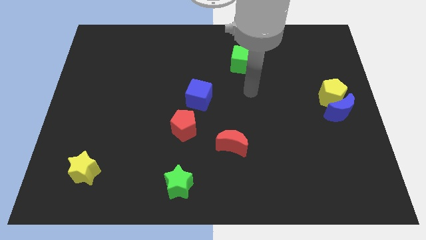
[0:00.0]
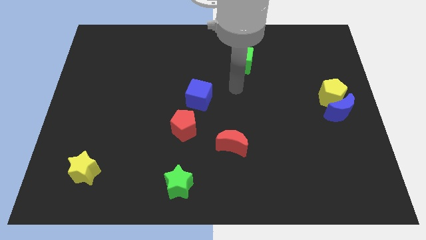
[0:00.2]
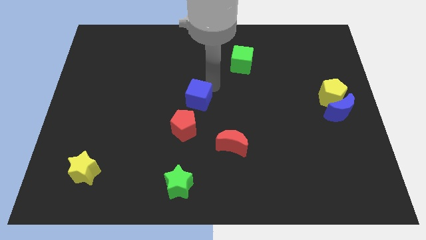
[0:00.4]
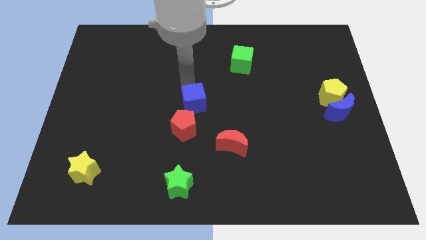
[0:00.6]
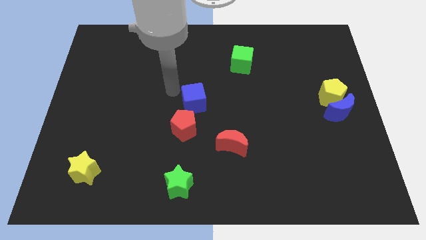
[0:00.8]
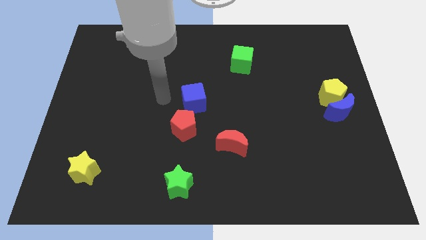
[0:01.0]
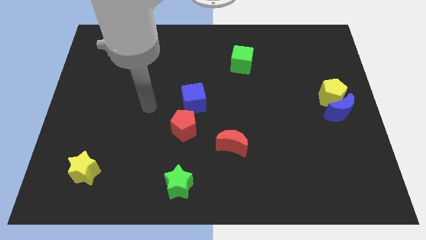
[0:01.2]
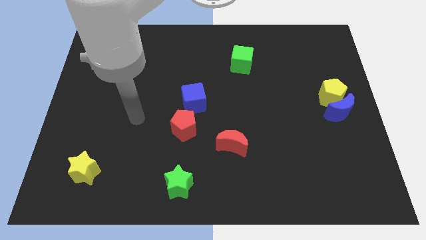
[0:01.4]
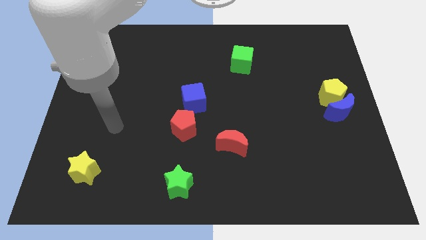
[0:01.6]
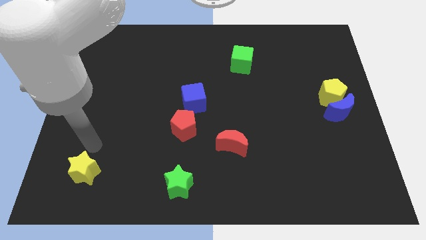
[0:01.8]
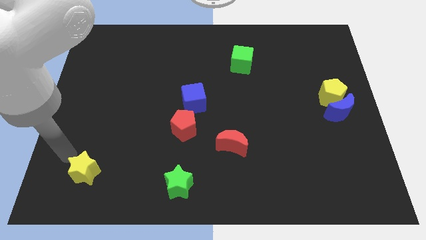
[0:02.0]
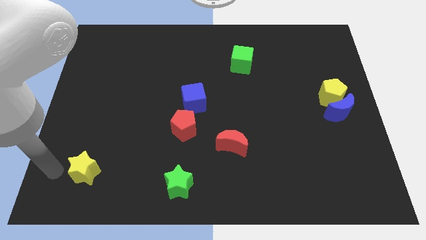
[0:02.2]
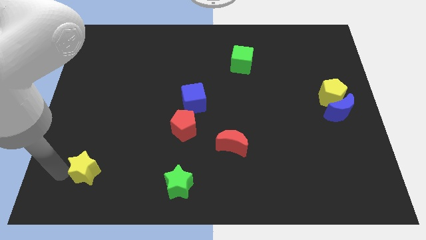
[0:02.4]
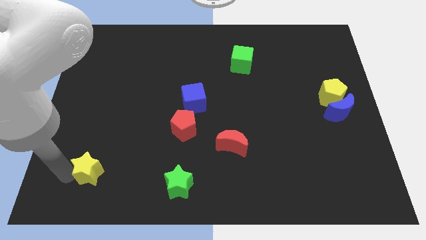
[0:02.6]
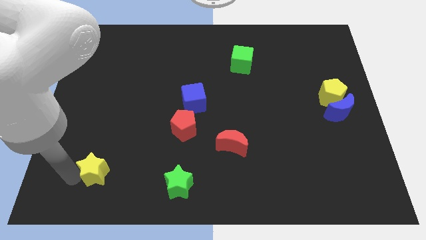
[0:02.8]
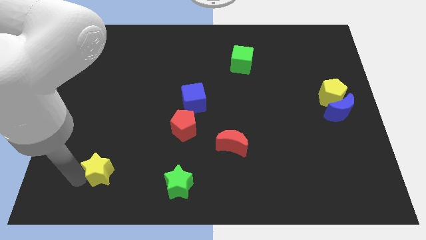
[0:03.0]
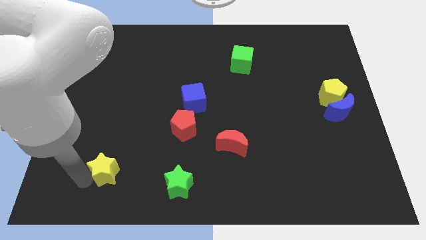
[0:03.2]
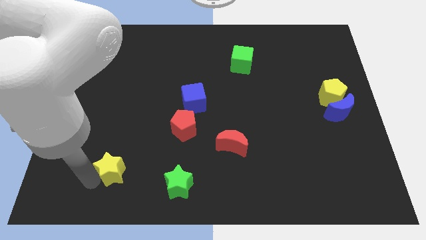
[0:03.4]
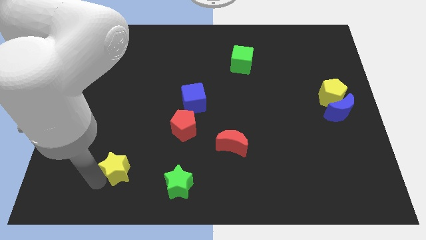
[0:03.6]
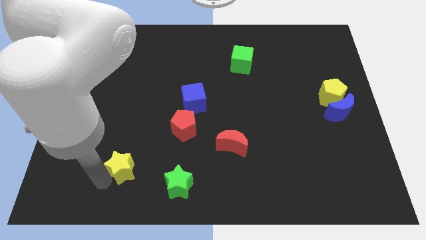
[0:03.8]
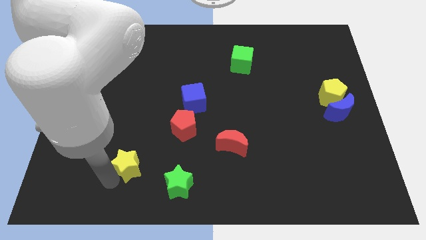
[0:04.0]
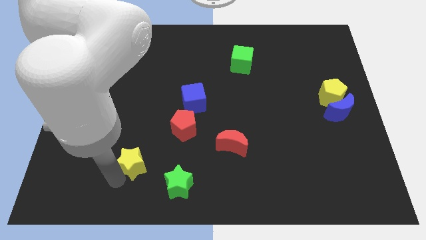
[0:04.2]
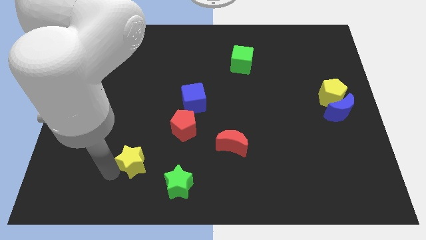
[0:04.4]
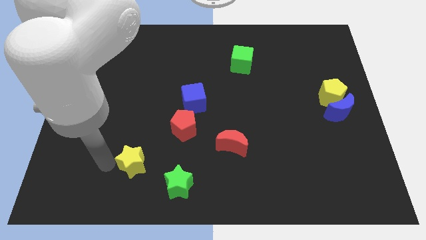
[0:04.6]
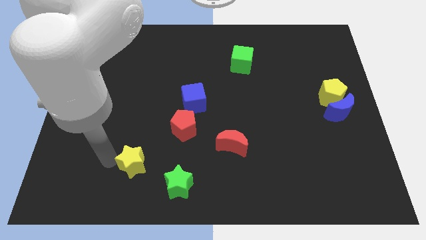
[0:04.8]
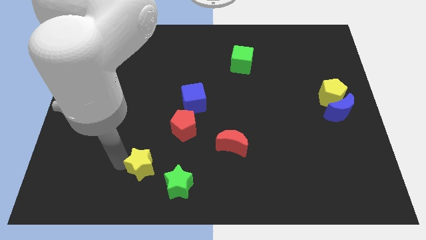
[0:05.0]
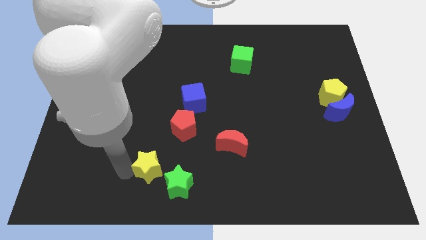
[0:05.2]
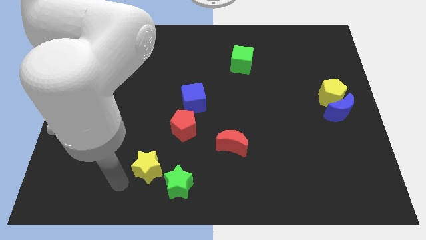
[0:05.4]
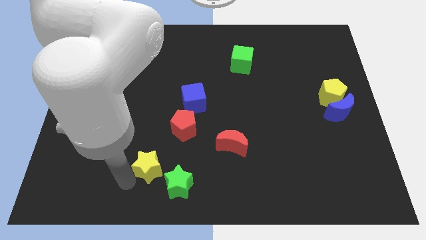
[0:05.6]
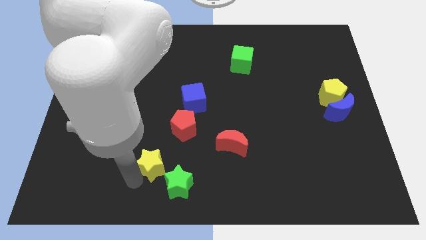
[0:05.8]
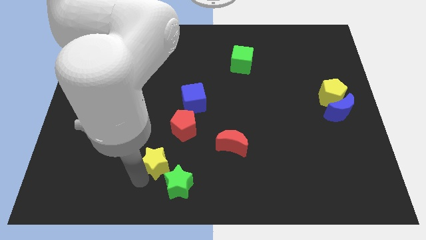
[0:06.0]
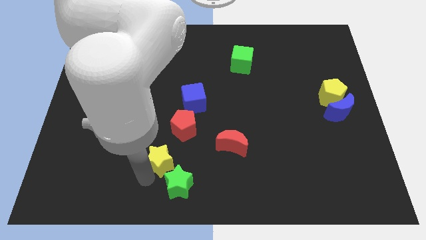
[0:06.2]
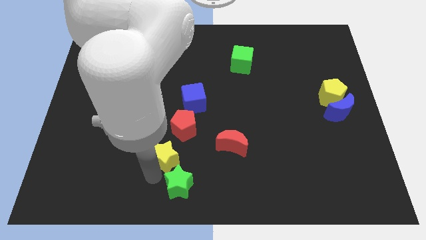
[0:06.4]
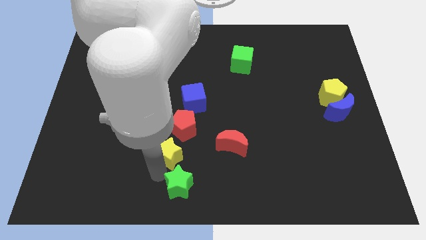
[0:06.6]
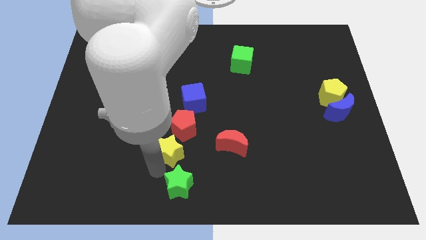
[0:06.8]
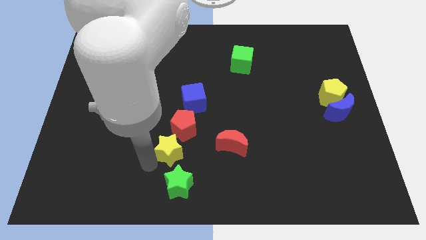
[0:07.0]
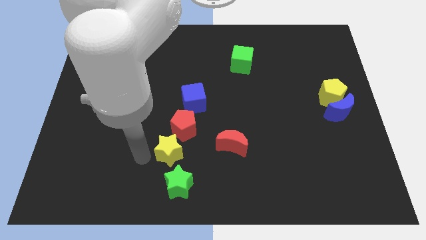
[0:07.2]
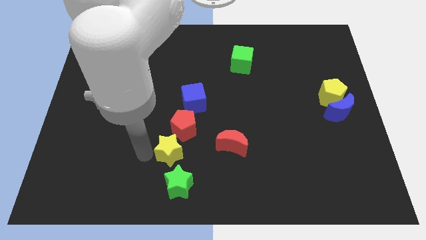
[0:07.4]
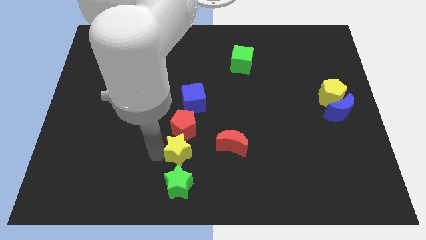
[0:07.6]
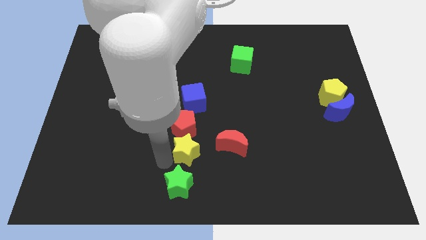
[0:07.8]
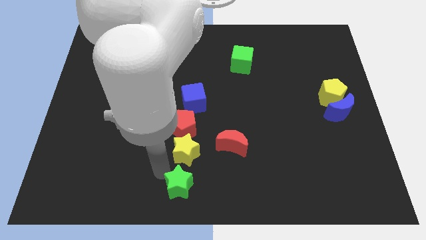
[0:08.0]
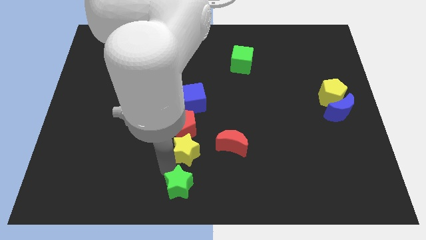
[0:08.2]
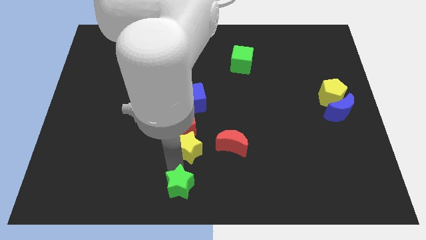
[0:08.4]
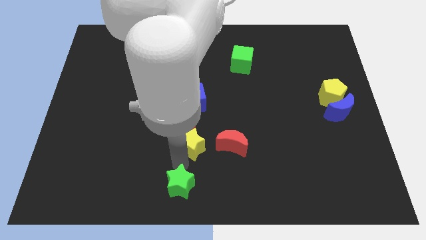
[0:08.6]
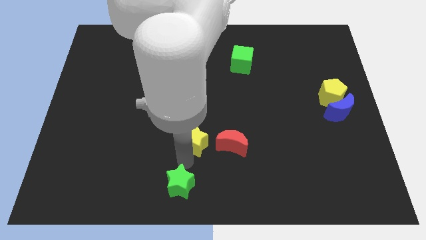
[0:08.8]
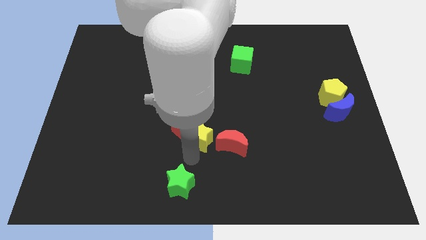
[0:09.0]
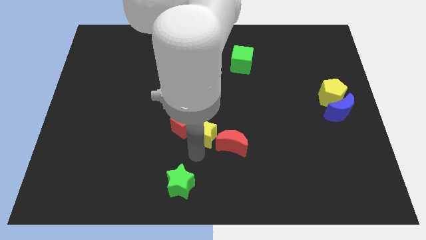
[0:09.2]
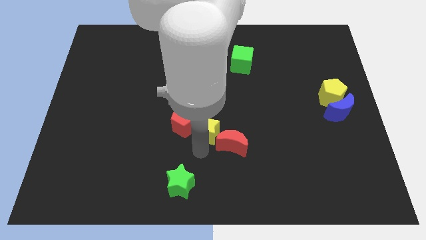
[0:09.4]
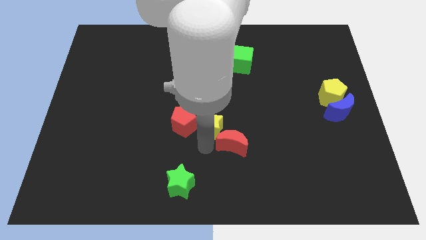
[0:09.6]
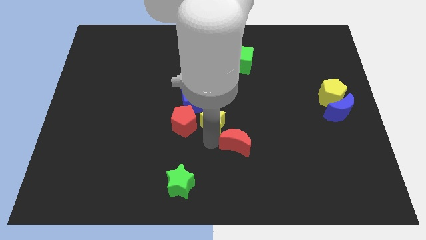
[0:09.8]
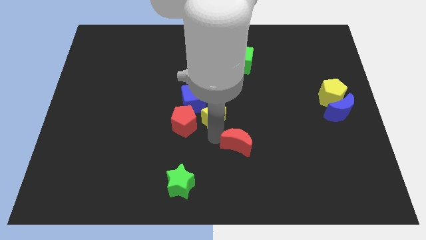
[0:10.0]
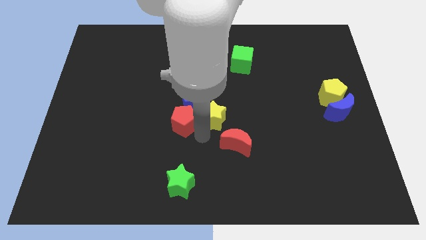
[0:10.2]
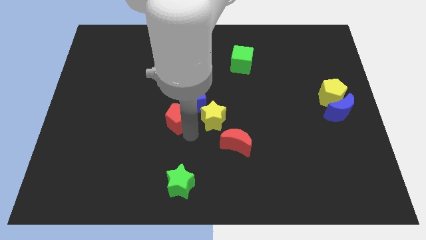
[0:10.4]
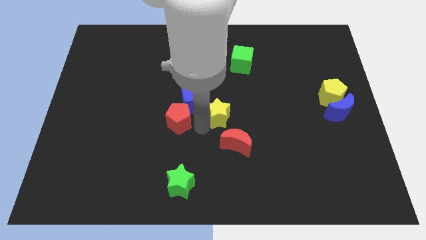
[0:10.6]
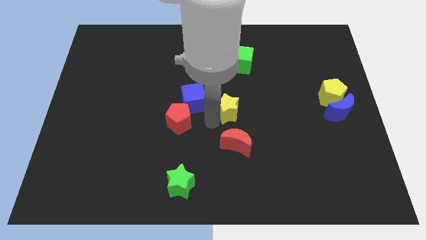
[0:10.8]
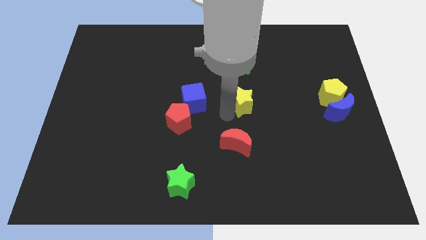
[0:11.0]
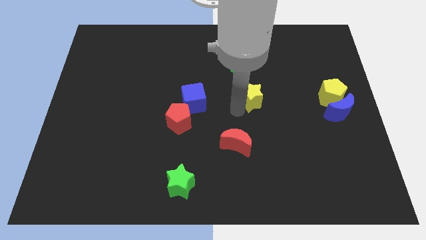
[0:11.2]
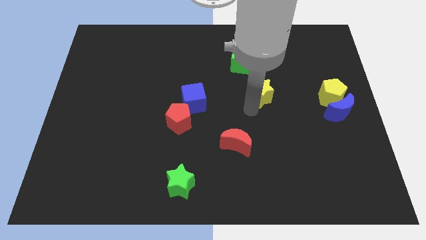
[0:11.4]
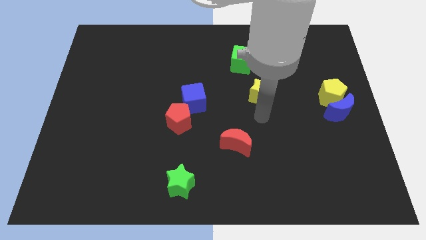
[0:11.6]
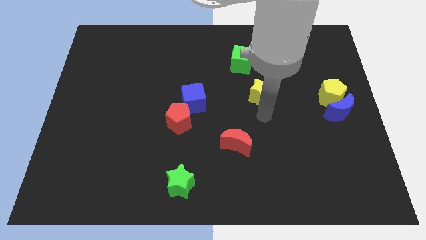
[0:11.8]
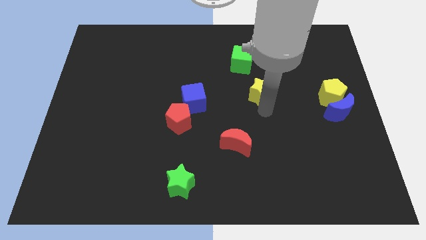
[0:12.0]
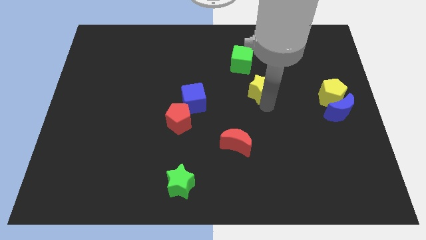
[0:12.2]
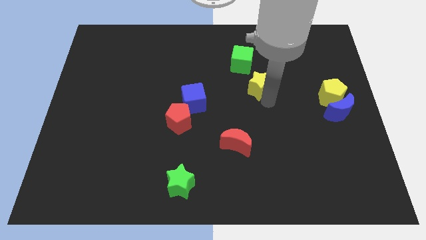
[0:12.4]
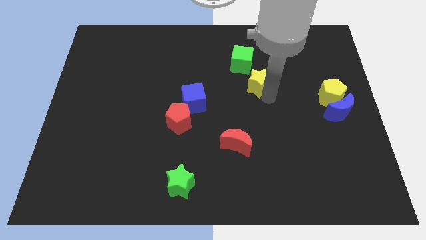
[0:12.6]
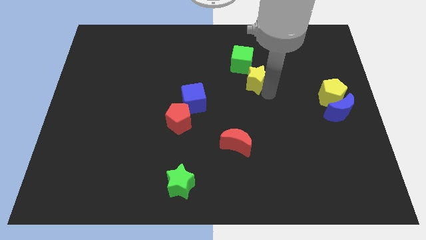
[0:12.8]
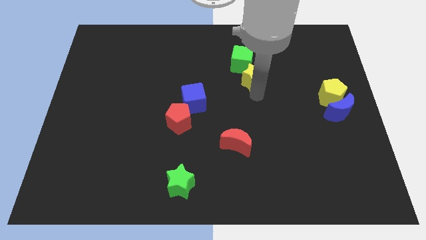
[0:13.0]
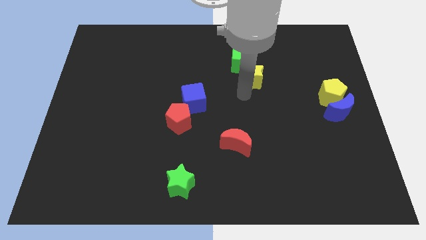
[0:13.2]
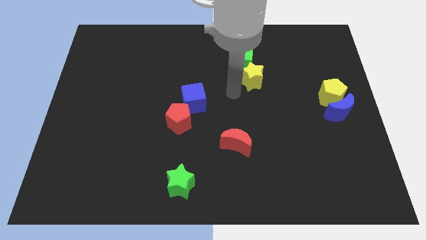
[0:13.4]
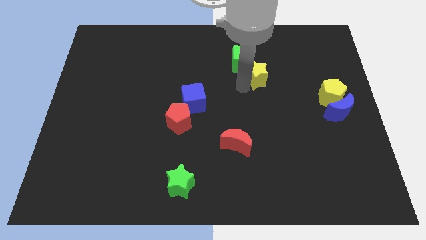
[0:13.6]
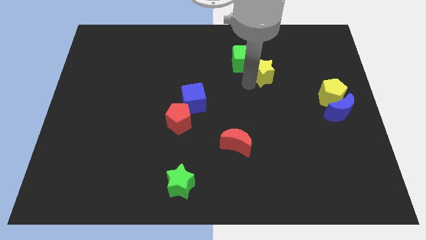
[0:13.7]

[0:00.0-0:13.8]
move the yellow star just right of the green cube
